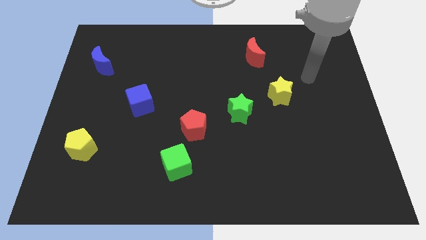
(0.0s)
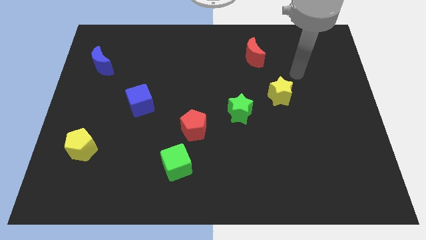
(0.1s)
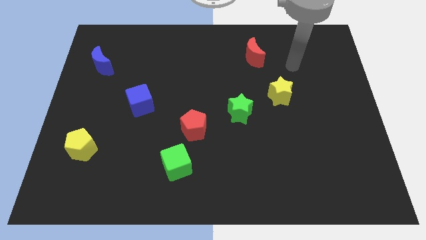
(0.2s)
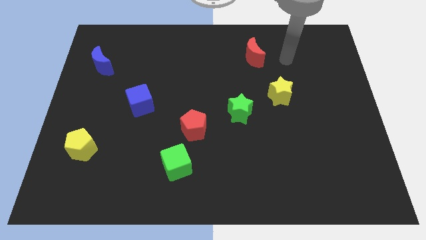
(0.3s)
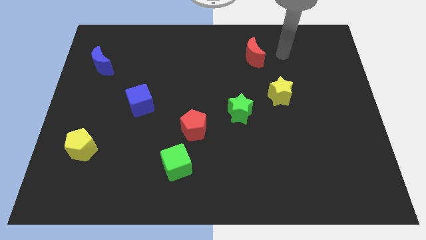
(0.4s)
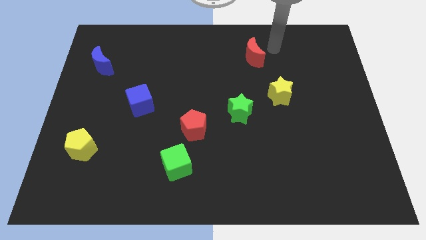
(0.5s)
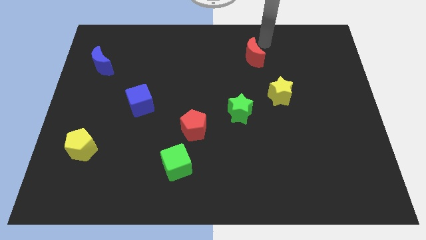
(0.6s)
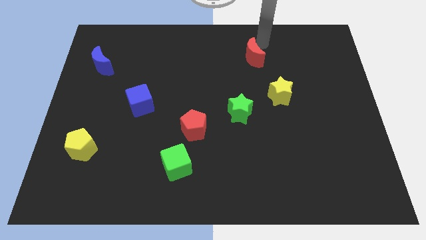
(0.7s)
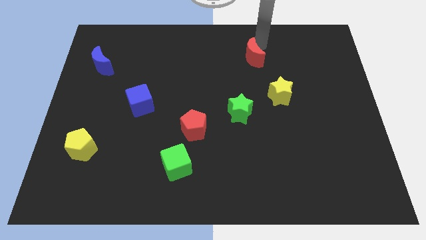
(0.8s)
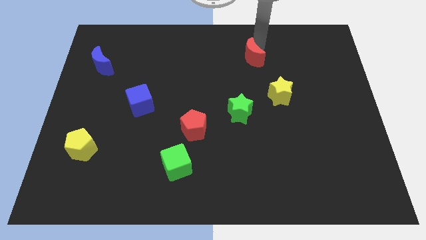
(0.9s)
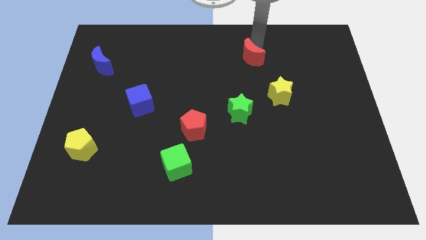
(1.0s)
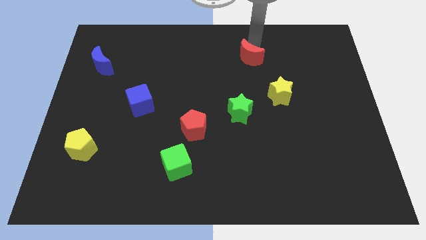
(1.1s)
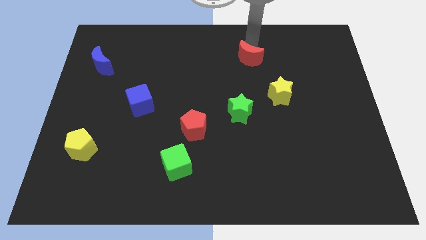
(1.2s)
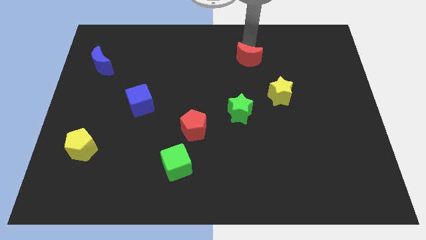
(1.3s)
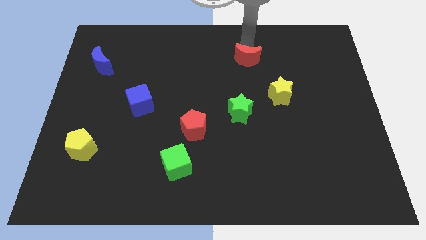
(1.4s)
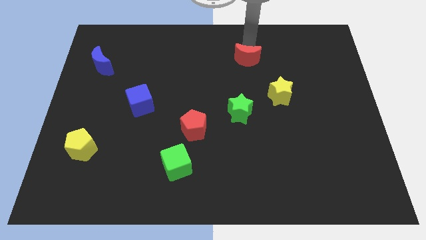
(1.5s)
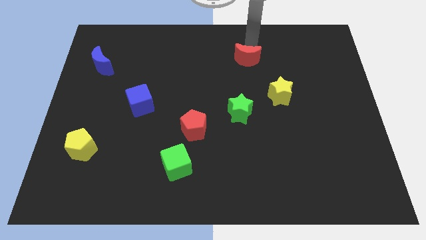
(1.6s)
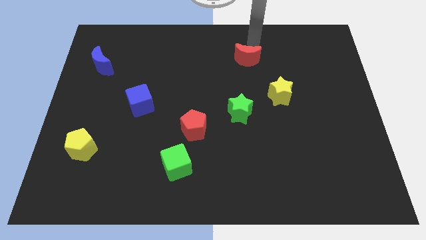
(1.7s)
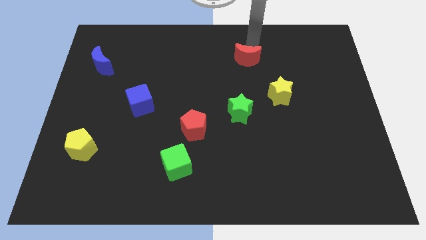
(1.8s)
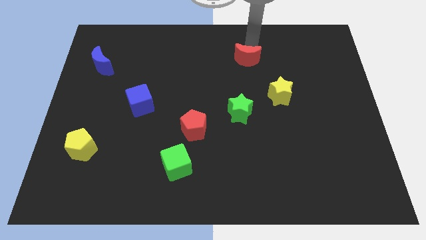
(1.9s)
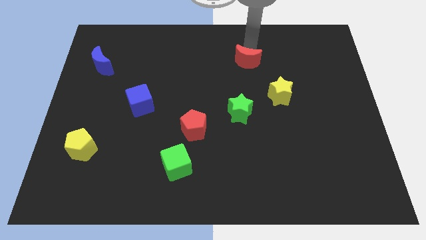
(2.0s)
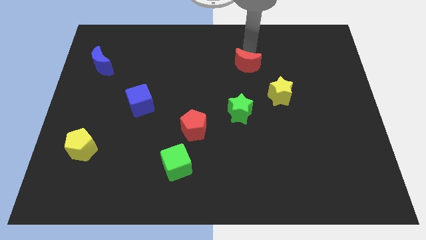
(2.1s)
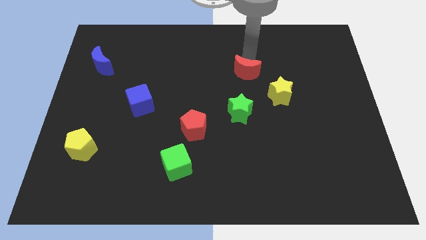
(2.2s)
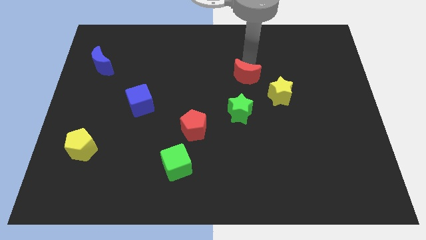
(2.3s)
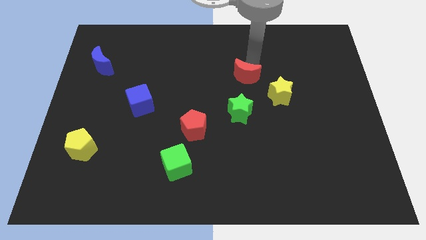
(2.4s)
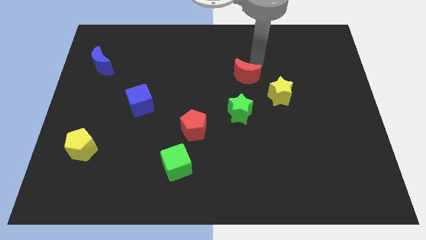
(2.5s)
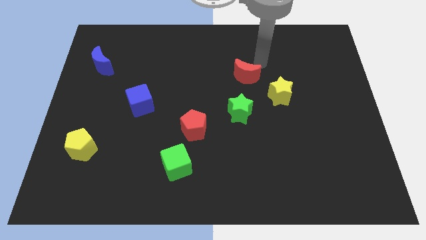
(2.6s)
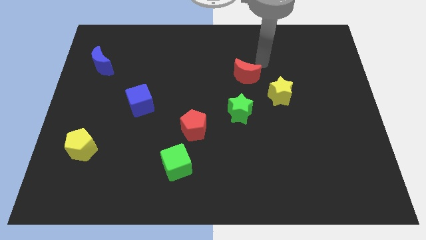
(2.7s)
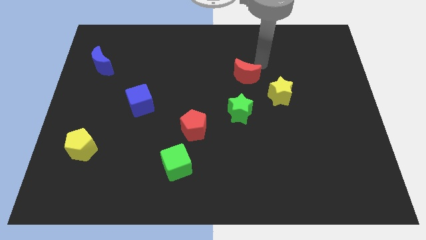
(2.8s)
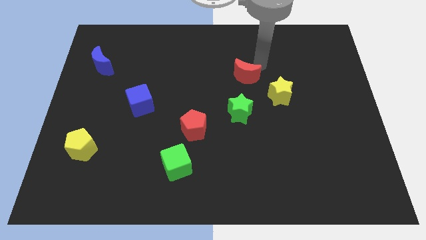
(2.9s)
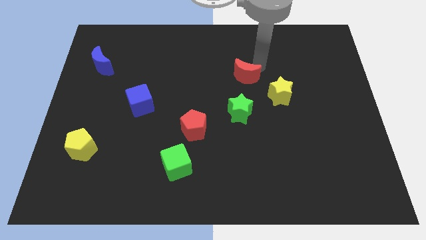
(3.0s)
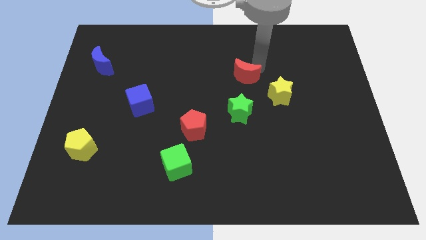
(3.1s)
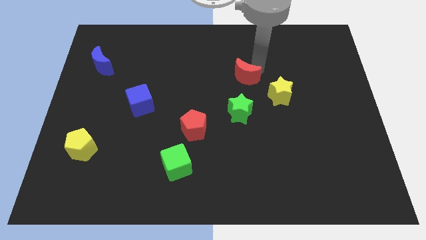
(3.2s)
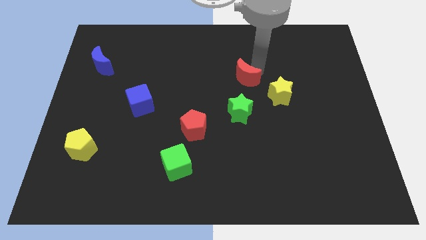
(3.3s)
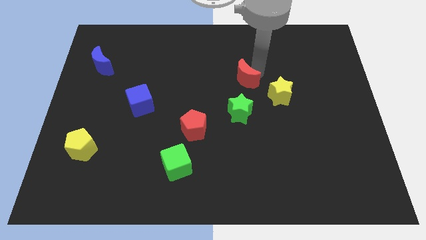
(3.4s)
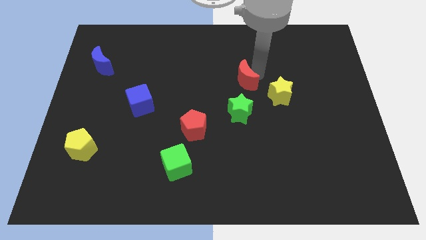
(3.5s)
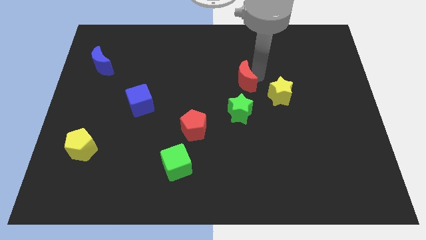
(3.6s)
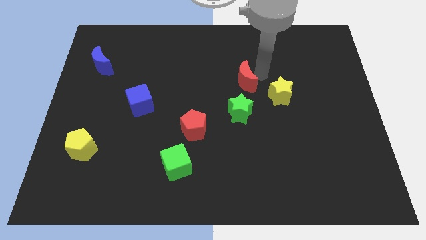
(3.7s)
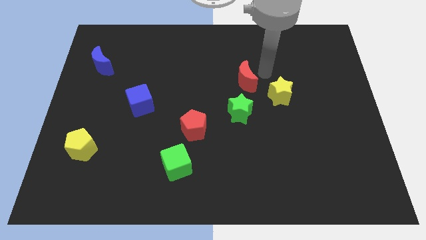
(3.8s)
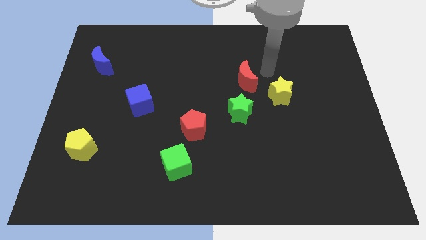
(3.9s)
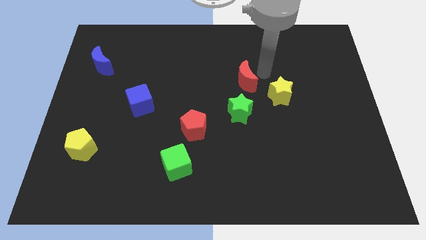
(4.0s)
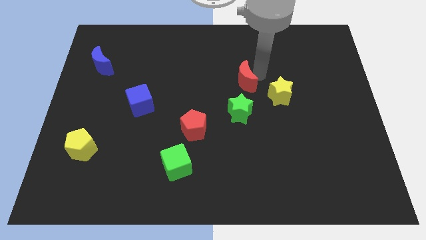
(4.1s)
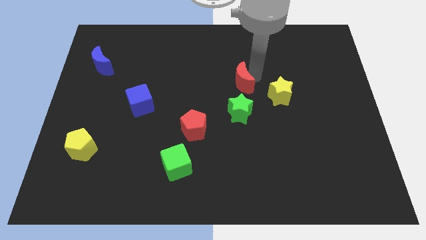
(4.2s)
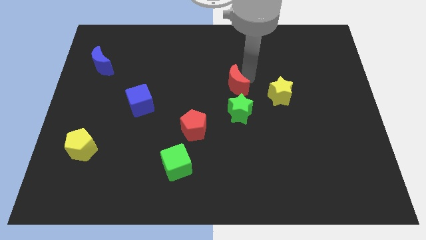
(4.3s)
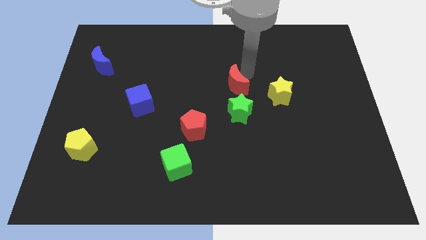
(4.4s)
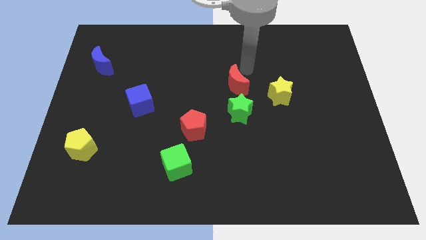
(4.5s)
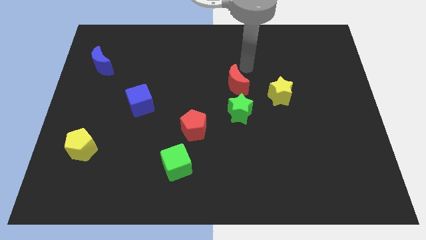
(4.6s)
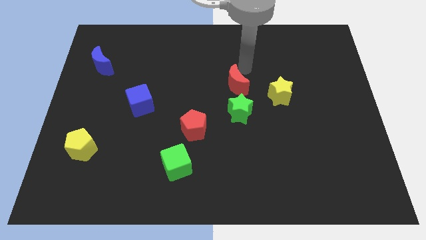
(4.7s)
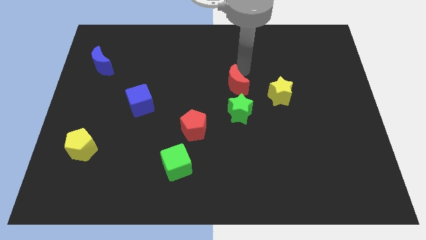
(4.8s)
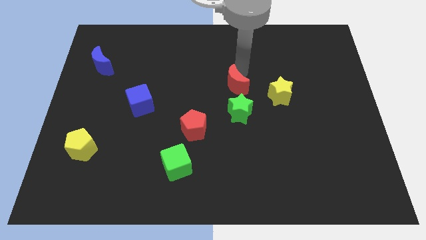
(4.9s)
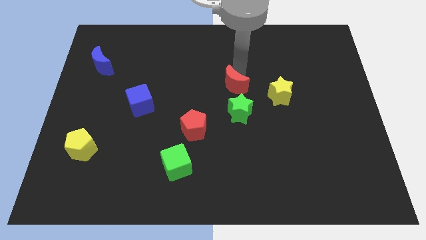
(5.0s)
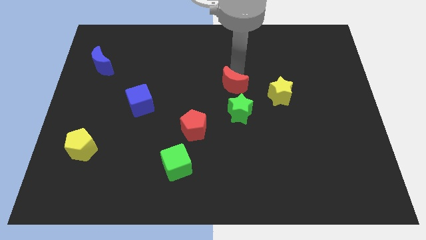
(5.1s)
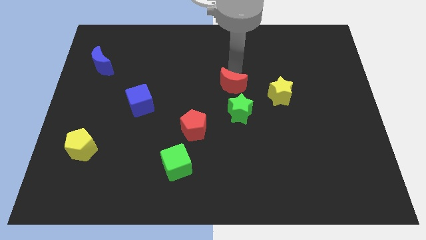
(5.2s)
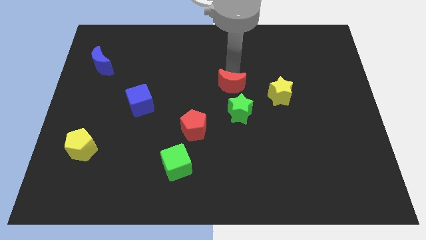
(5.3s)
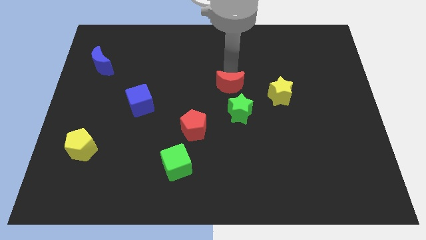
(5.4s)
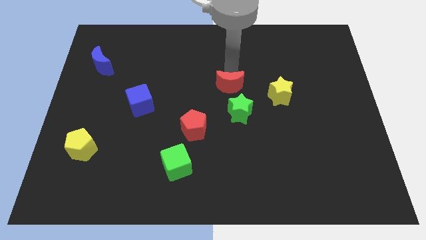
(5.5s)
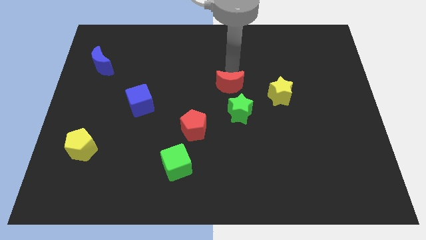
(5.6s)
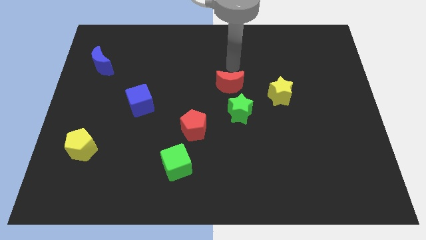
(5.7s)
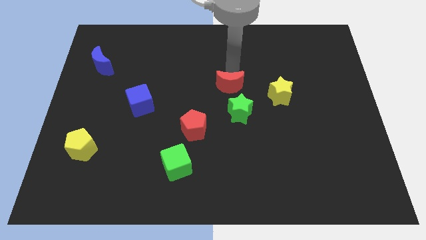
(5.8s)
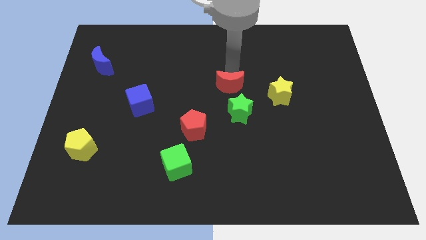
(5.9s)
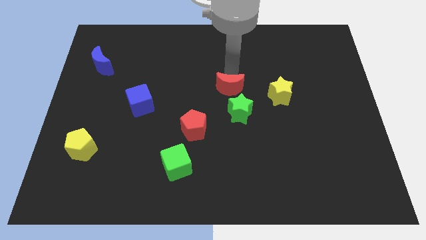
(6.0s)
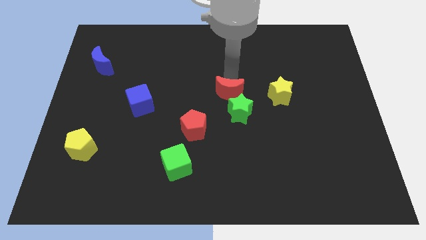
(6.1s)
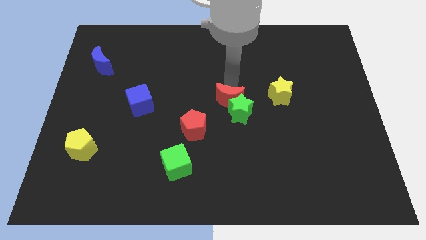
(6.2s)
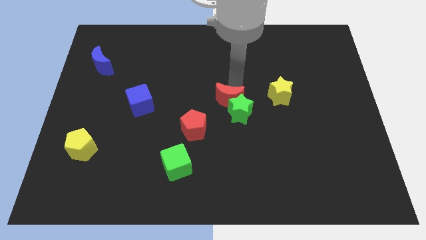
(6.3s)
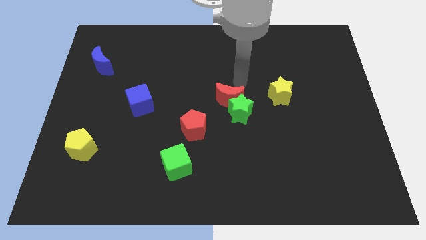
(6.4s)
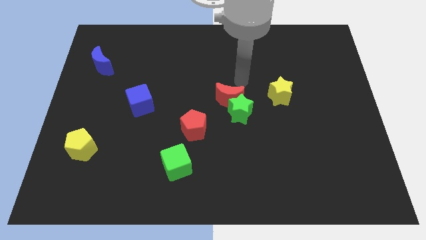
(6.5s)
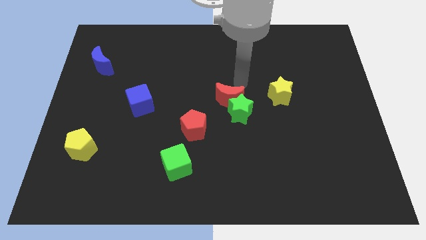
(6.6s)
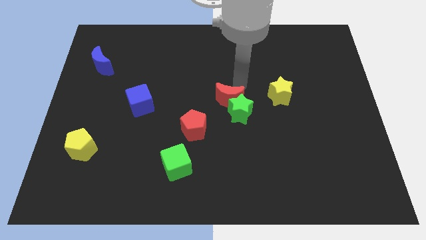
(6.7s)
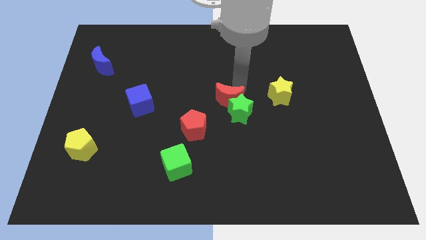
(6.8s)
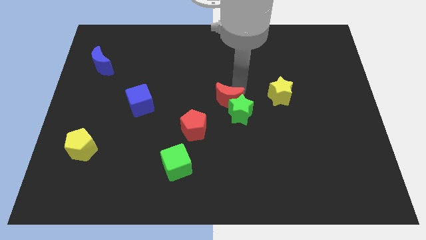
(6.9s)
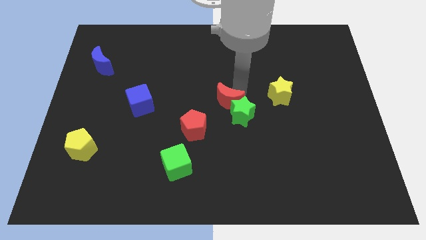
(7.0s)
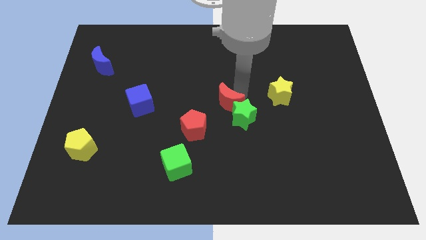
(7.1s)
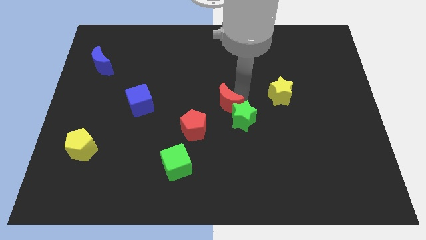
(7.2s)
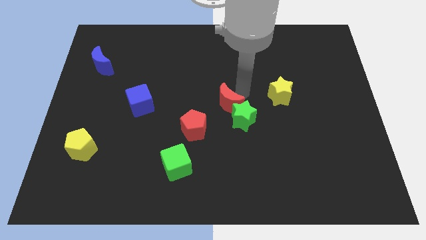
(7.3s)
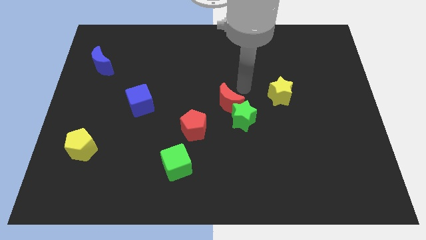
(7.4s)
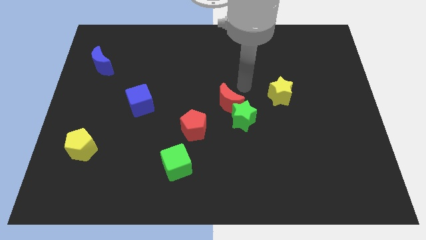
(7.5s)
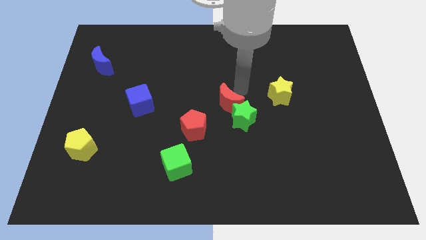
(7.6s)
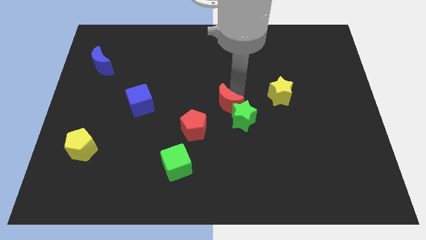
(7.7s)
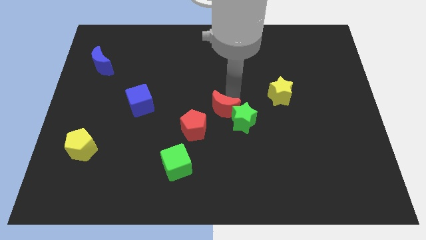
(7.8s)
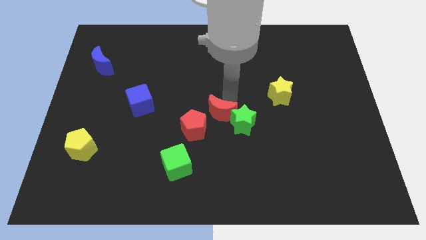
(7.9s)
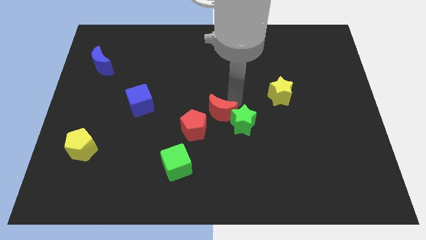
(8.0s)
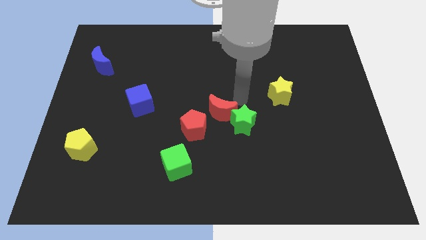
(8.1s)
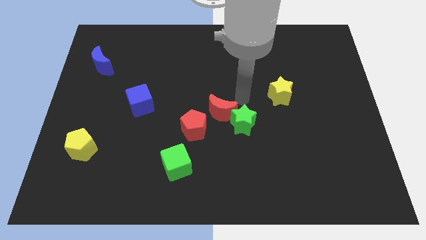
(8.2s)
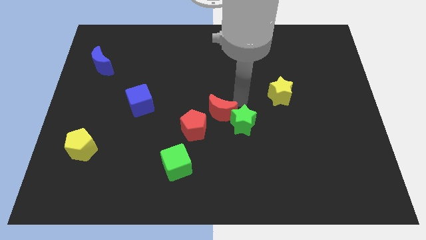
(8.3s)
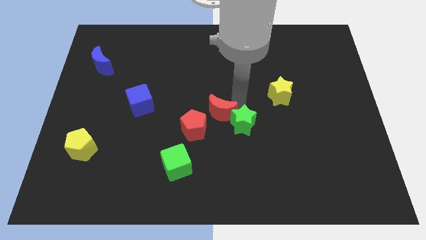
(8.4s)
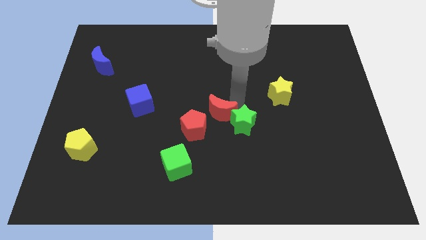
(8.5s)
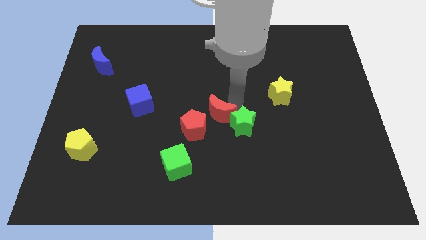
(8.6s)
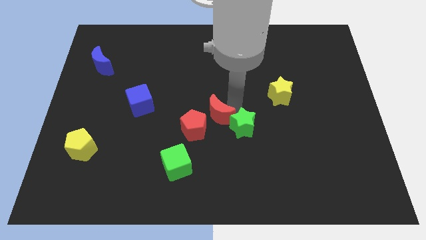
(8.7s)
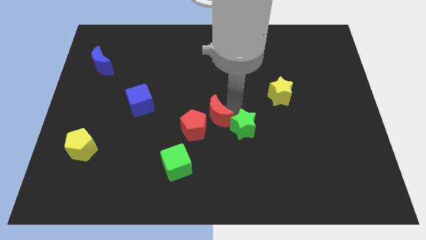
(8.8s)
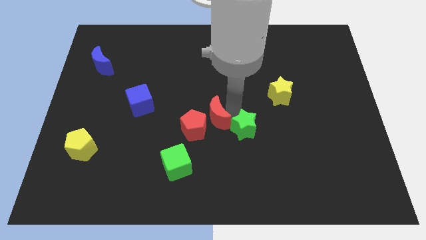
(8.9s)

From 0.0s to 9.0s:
push the red moon close to the red pentagon
